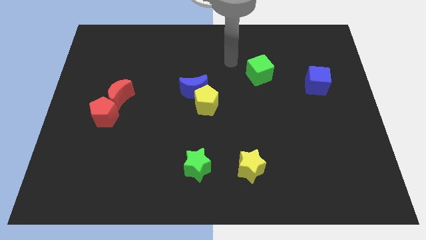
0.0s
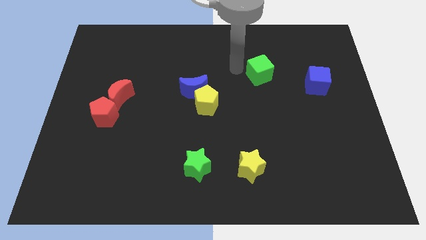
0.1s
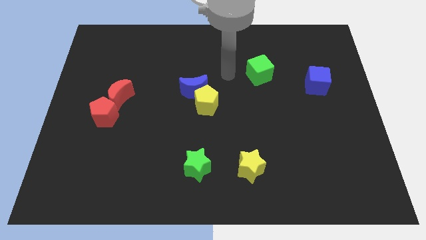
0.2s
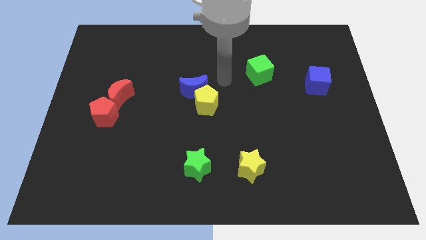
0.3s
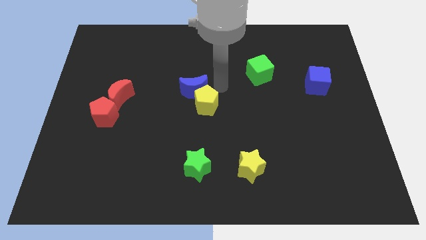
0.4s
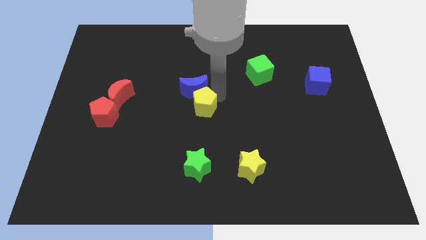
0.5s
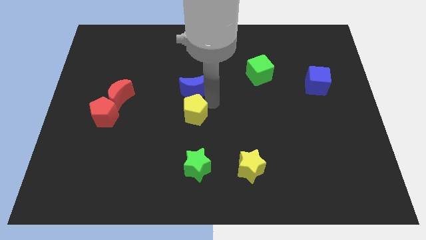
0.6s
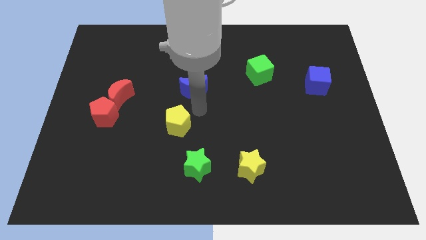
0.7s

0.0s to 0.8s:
move the blue moon away from the yellow pentagon

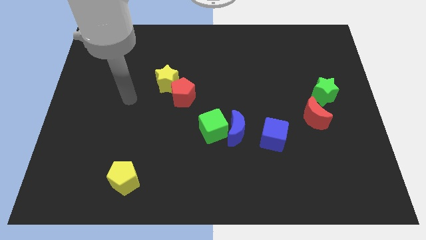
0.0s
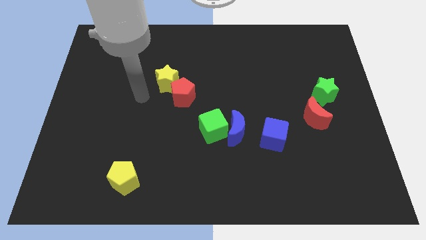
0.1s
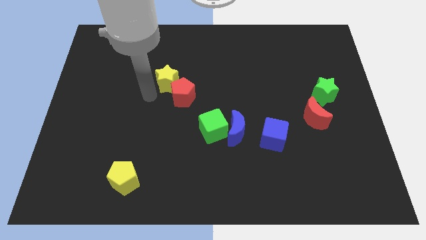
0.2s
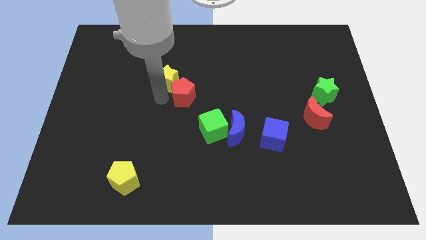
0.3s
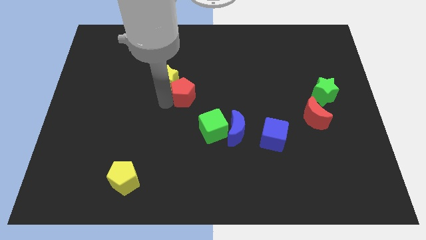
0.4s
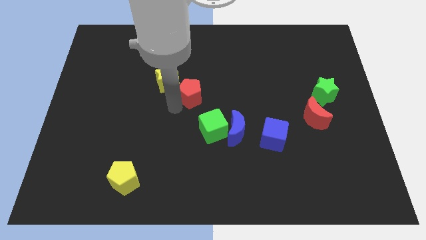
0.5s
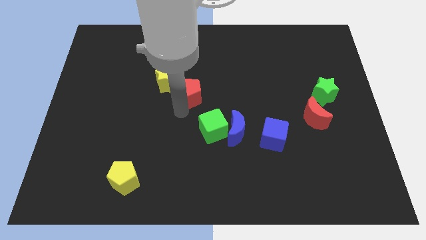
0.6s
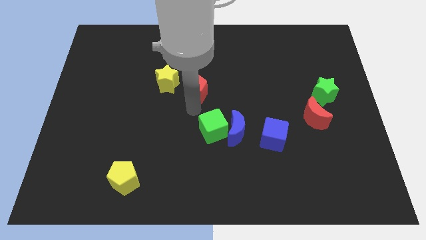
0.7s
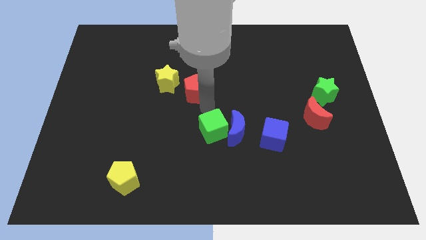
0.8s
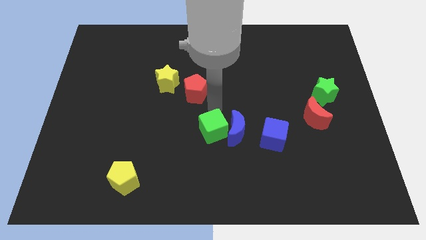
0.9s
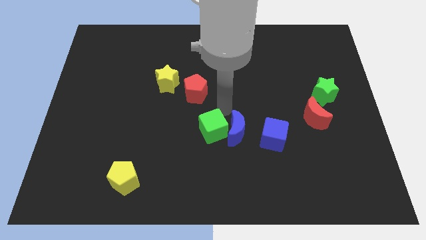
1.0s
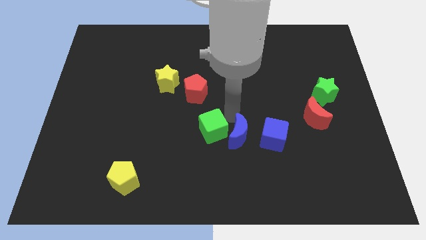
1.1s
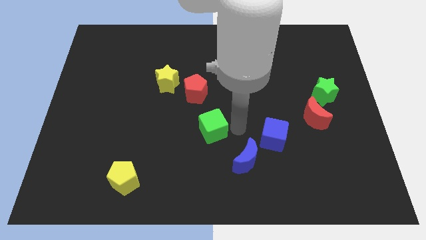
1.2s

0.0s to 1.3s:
move the green cube away from the blue moon

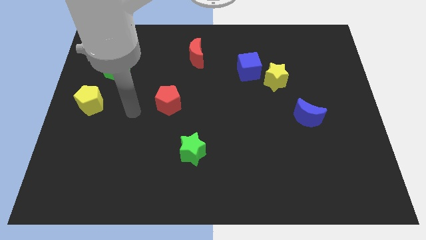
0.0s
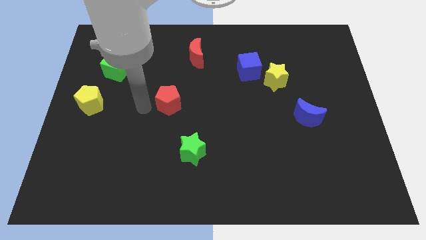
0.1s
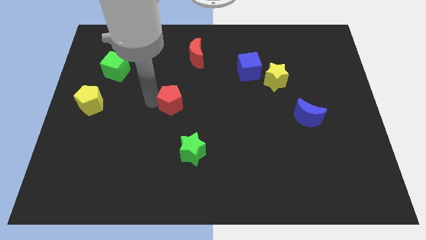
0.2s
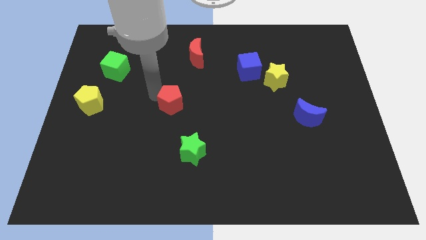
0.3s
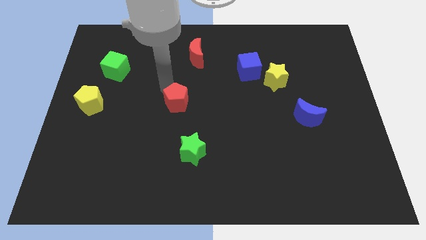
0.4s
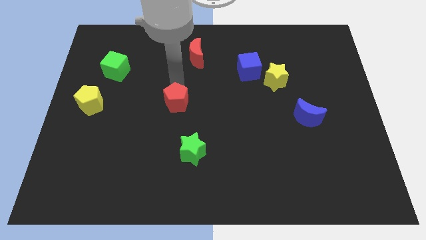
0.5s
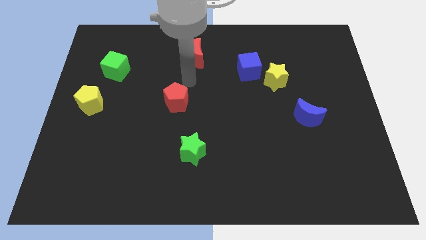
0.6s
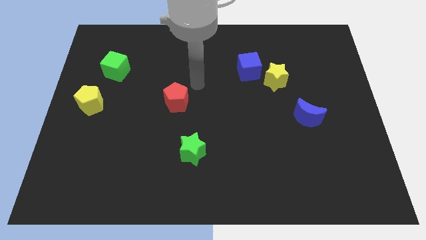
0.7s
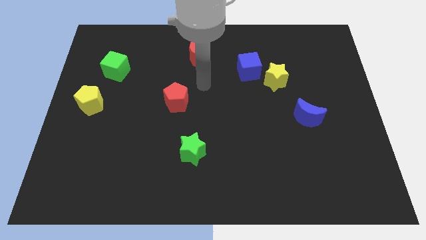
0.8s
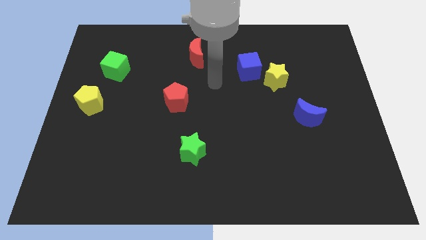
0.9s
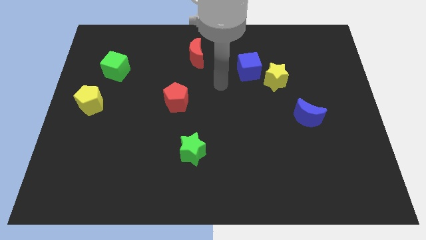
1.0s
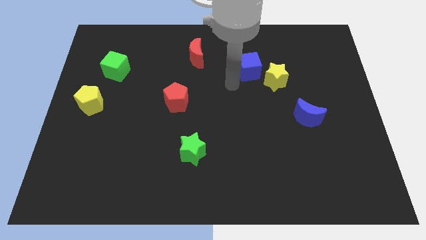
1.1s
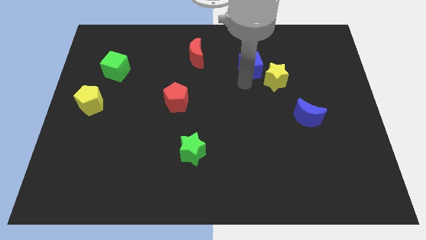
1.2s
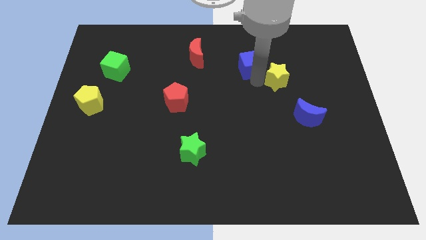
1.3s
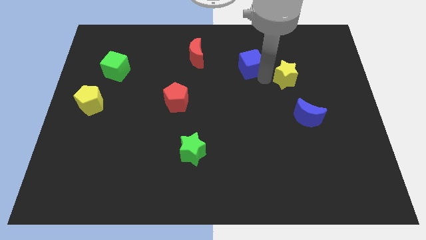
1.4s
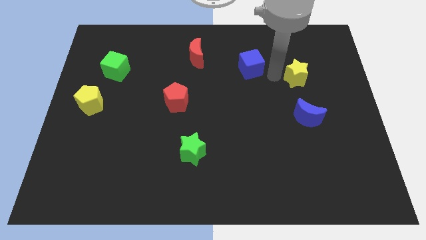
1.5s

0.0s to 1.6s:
move the blue cube away from the yellow star

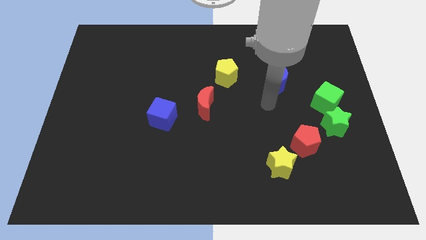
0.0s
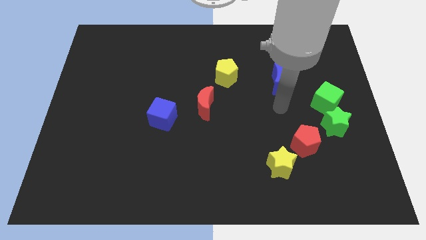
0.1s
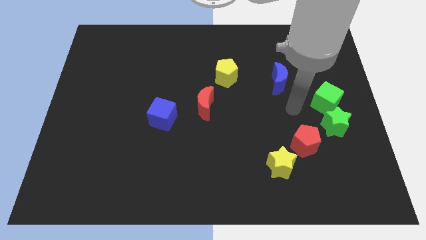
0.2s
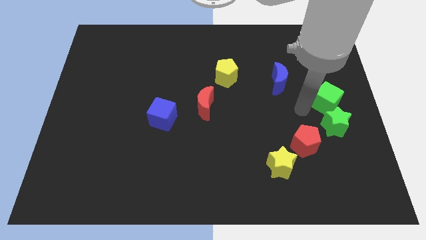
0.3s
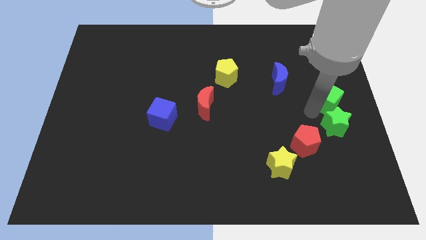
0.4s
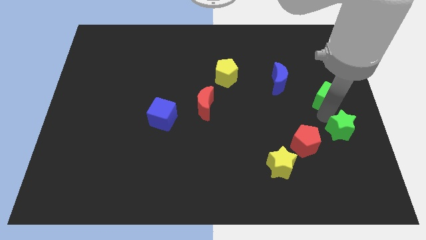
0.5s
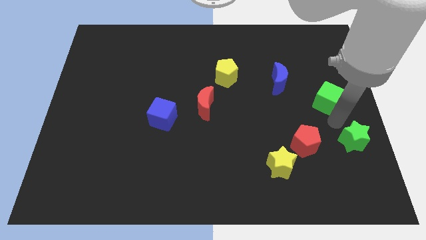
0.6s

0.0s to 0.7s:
separate the green cube from the green star

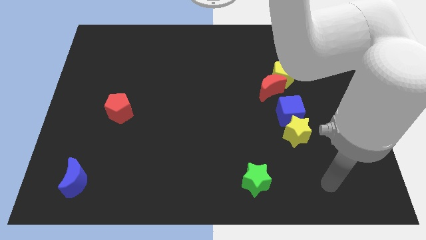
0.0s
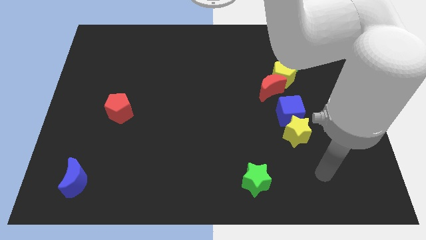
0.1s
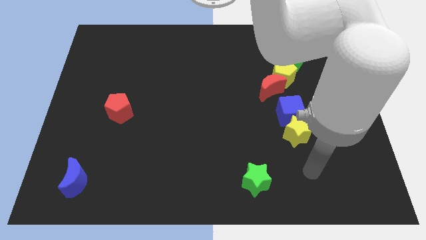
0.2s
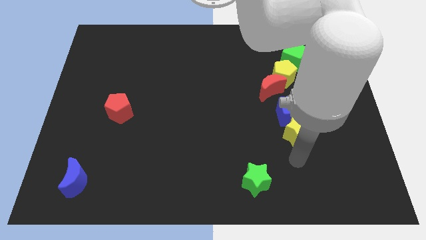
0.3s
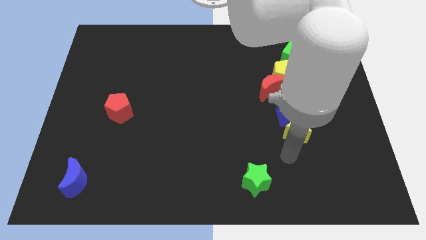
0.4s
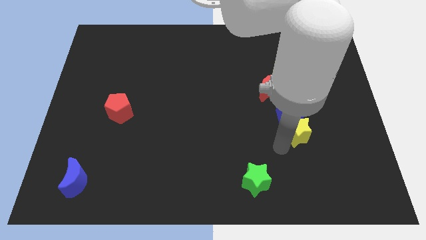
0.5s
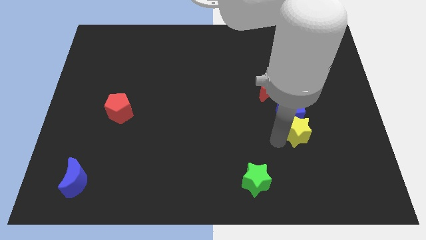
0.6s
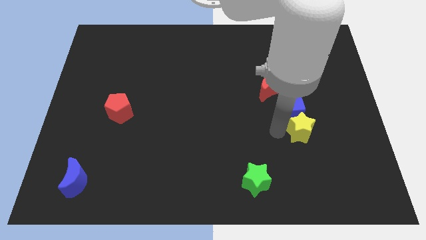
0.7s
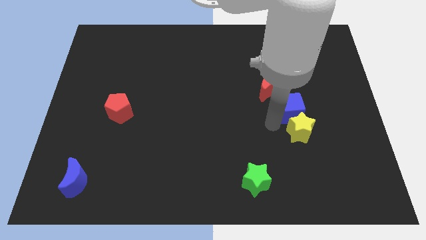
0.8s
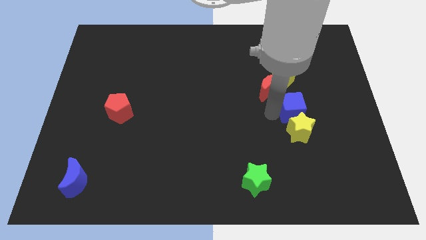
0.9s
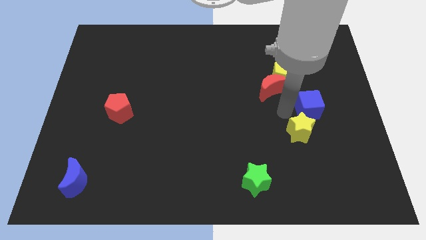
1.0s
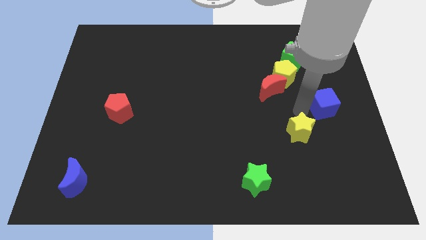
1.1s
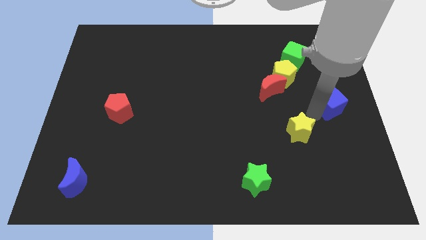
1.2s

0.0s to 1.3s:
move the yellow star away from the blue cube

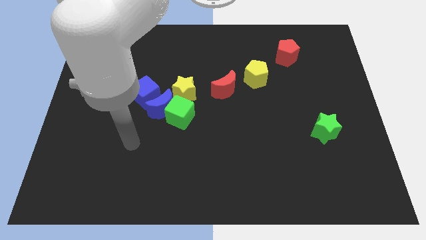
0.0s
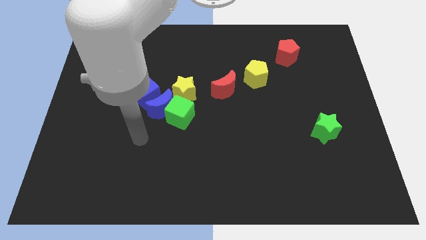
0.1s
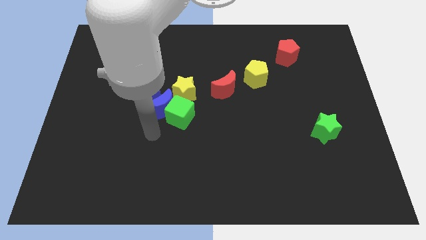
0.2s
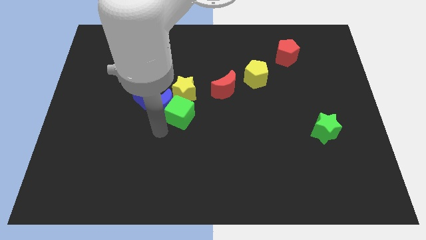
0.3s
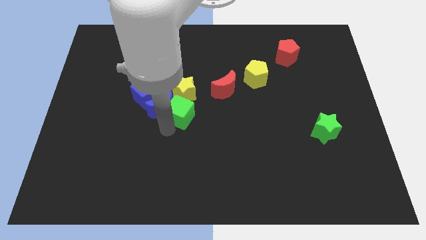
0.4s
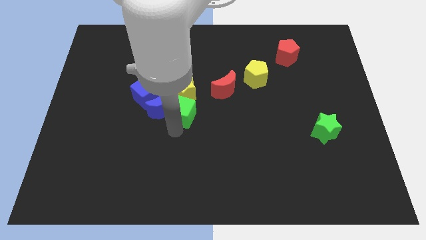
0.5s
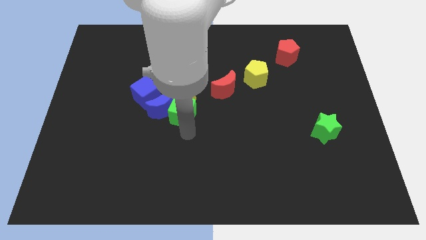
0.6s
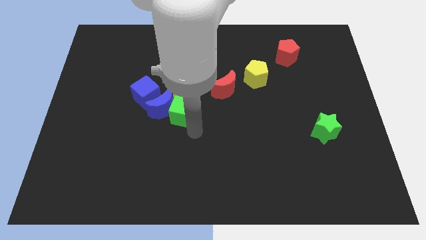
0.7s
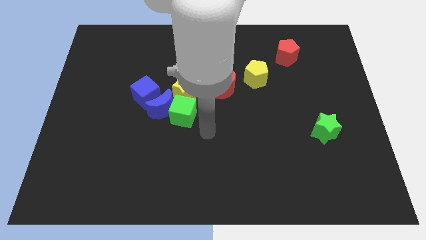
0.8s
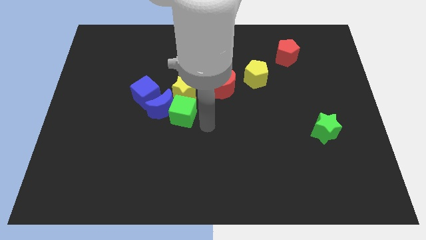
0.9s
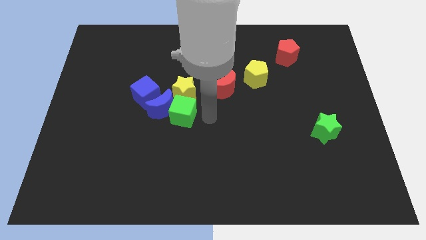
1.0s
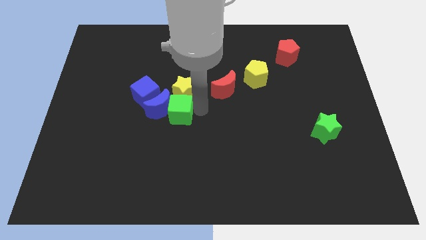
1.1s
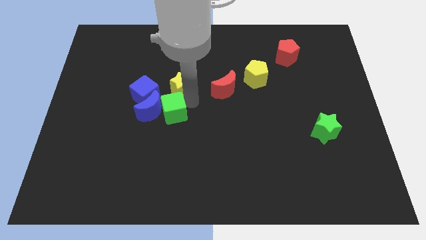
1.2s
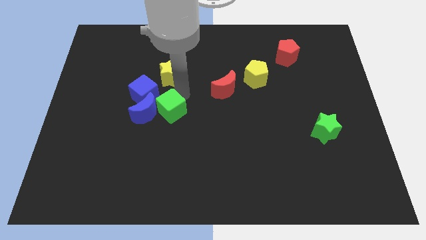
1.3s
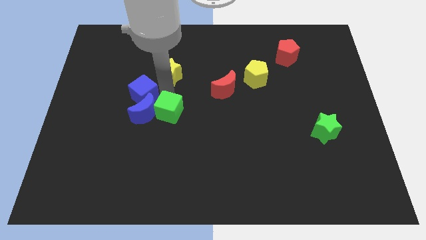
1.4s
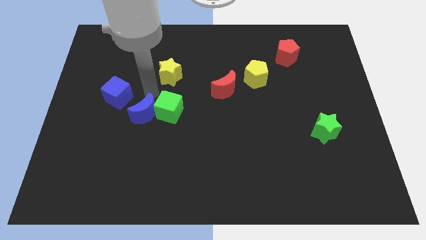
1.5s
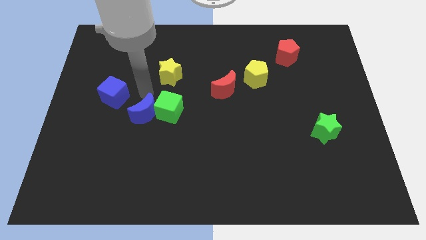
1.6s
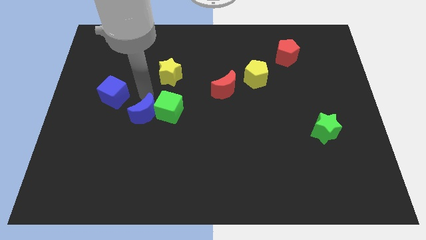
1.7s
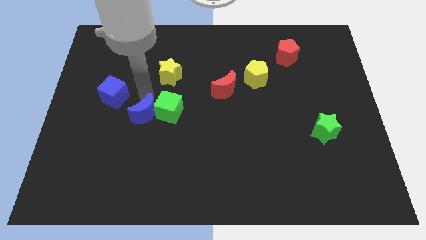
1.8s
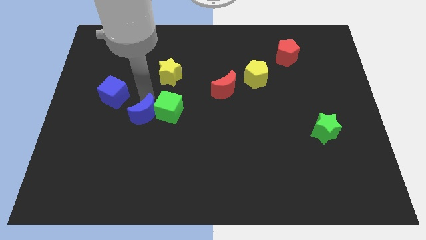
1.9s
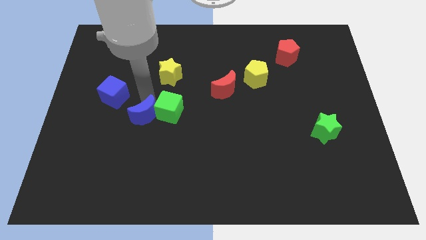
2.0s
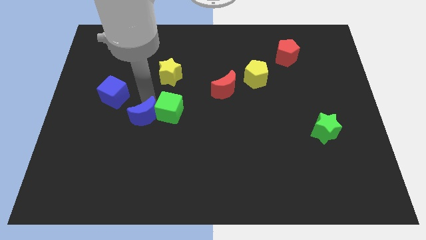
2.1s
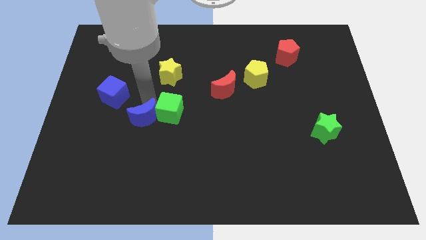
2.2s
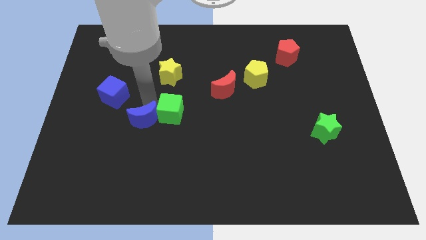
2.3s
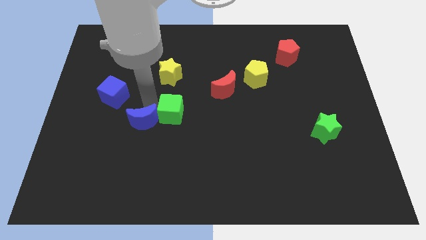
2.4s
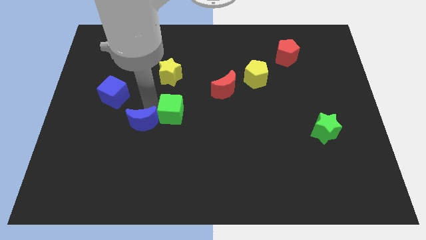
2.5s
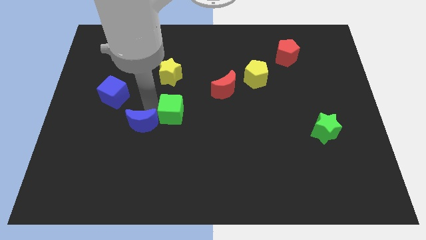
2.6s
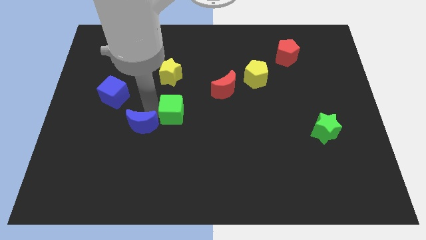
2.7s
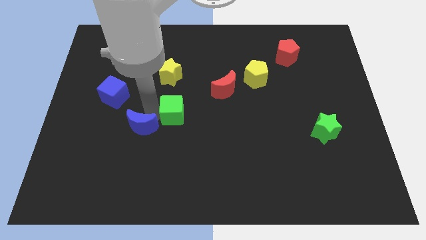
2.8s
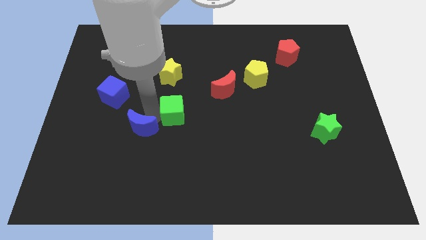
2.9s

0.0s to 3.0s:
separate the blue moon from the clump

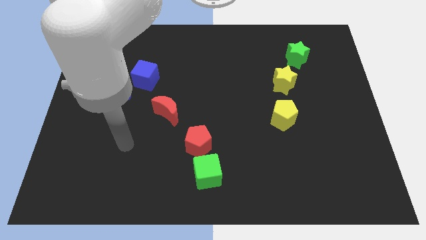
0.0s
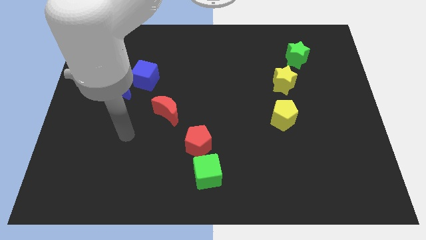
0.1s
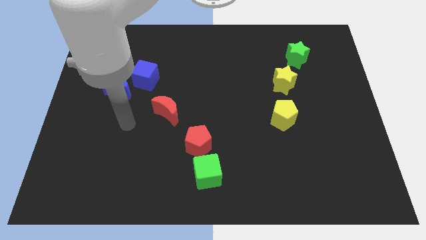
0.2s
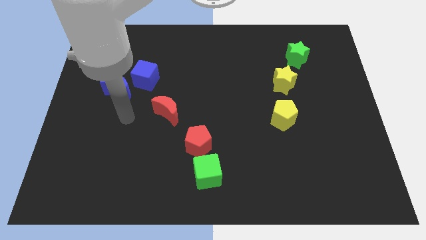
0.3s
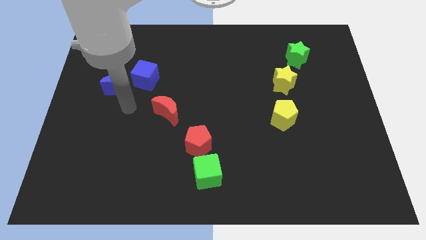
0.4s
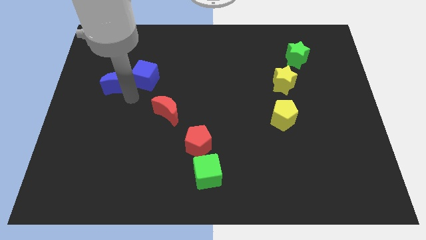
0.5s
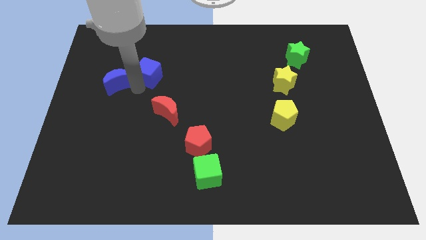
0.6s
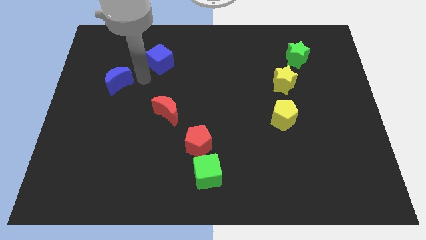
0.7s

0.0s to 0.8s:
pull the blue moon apart from the blue cube
